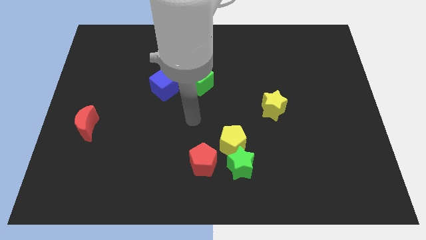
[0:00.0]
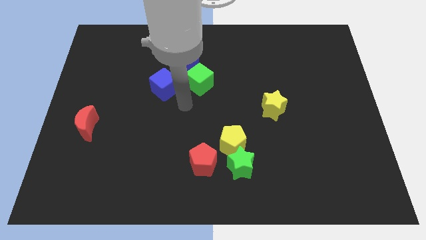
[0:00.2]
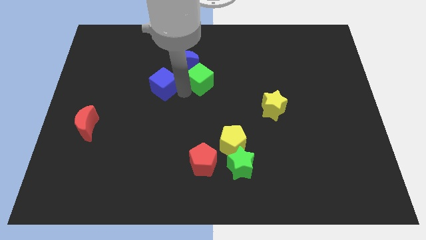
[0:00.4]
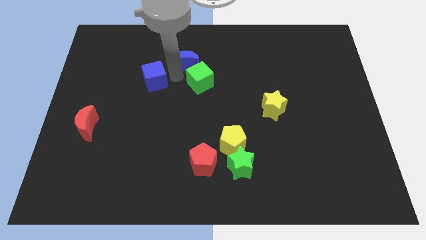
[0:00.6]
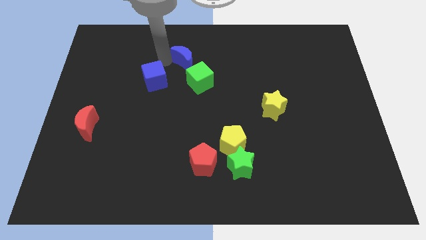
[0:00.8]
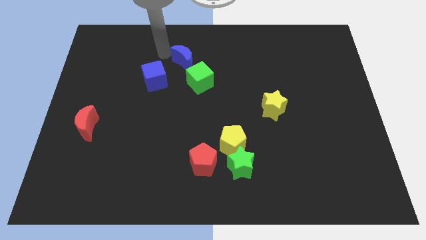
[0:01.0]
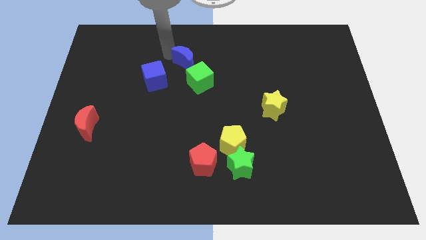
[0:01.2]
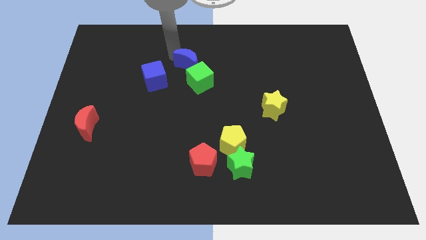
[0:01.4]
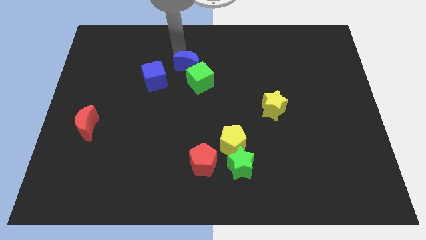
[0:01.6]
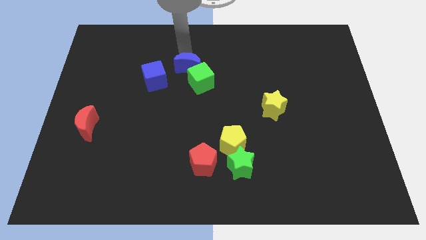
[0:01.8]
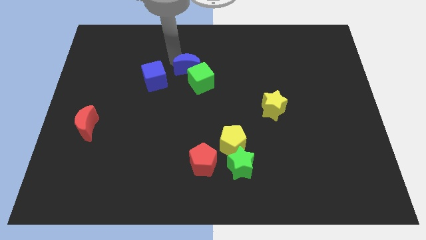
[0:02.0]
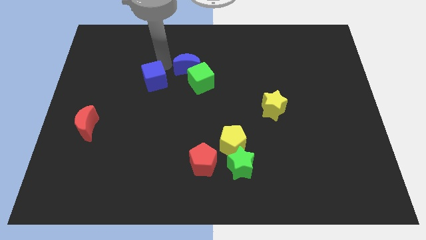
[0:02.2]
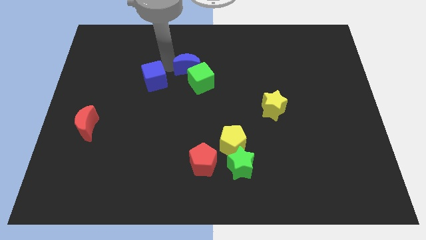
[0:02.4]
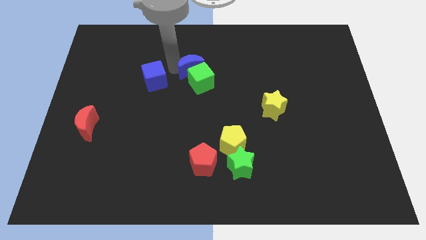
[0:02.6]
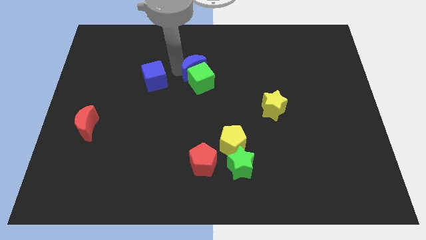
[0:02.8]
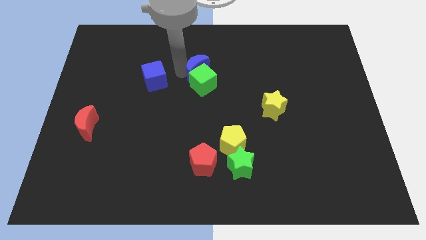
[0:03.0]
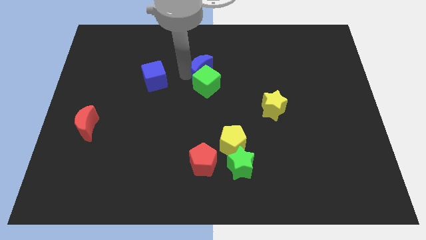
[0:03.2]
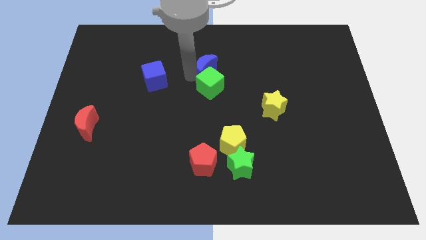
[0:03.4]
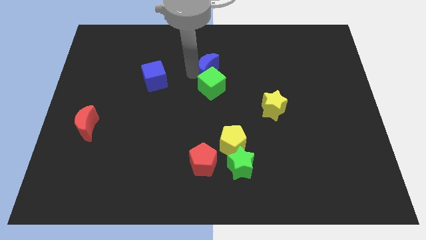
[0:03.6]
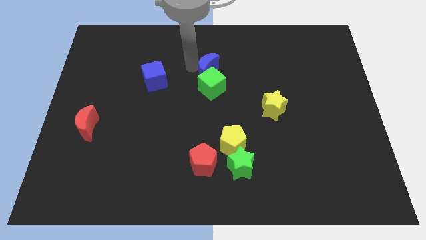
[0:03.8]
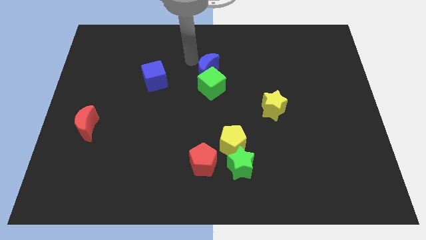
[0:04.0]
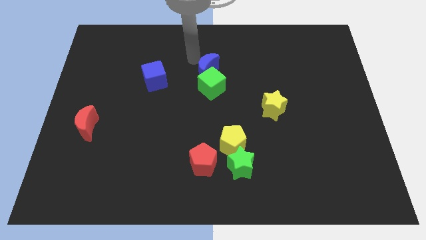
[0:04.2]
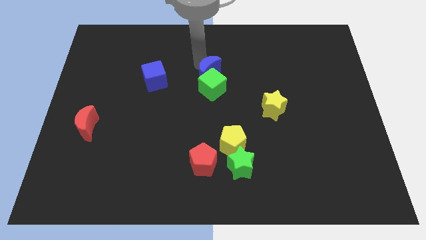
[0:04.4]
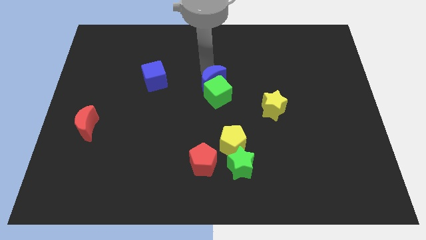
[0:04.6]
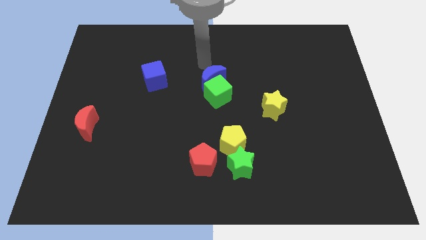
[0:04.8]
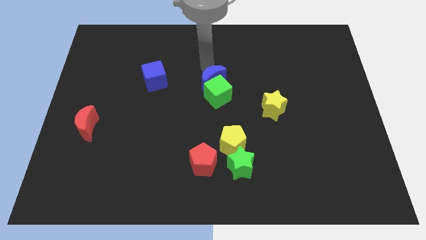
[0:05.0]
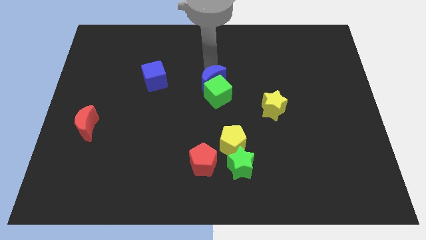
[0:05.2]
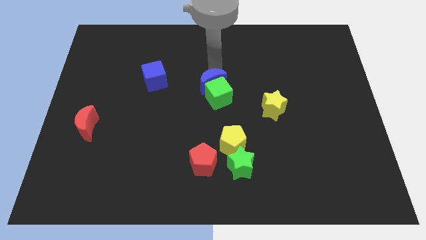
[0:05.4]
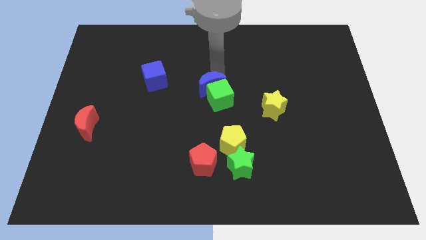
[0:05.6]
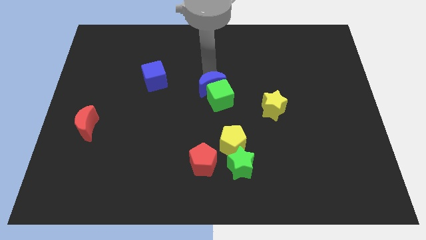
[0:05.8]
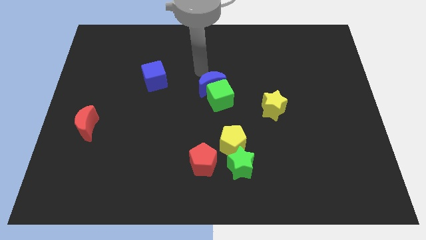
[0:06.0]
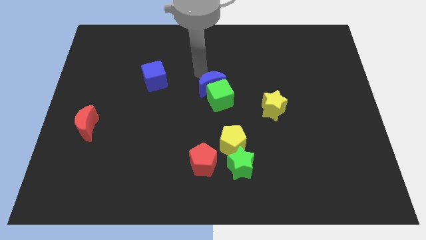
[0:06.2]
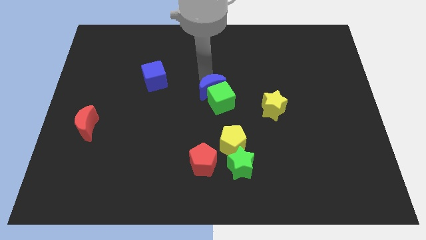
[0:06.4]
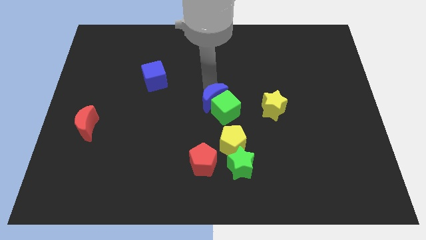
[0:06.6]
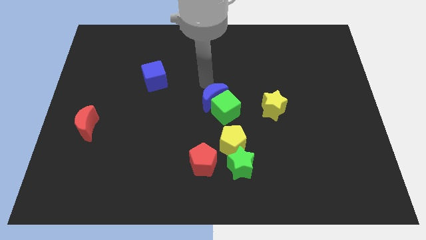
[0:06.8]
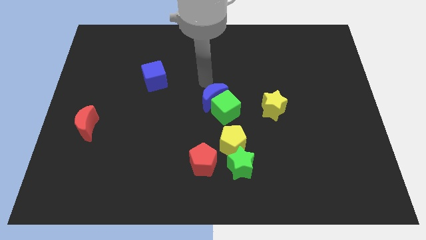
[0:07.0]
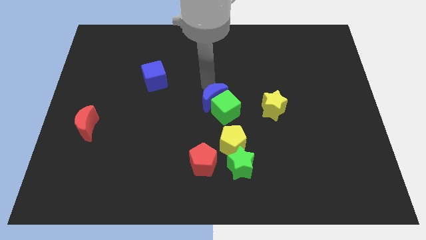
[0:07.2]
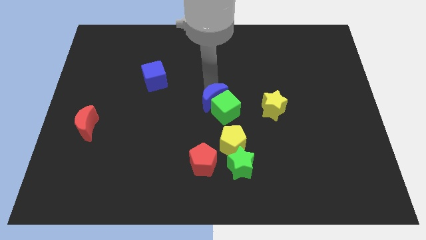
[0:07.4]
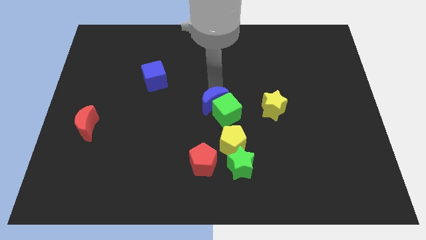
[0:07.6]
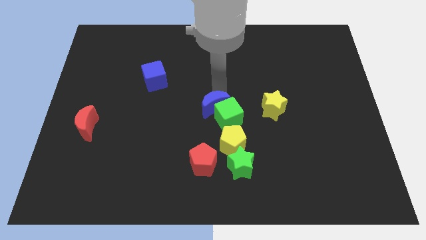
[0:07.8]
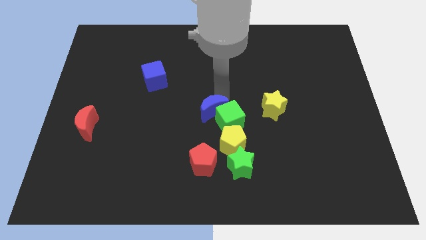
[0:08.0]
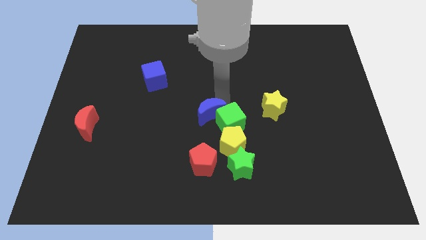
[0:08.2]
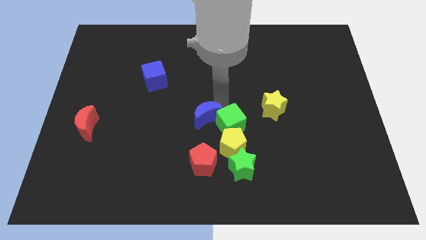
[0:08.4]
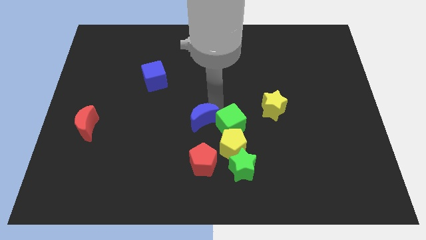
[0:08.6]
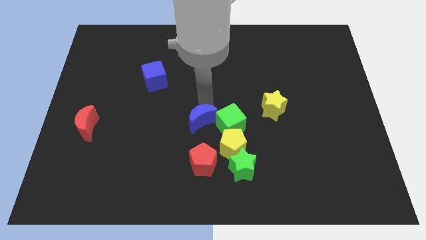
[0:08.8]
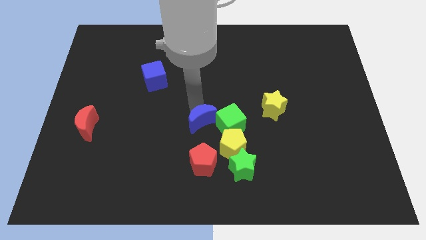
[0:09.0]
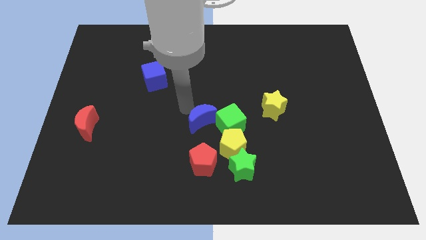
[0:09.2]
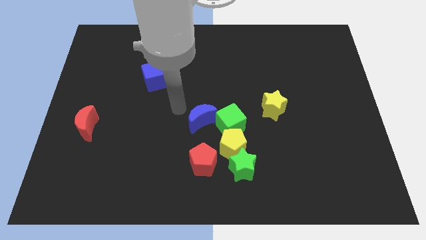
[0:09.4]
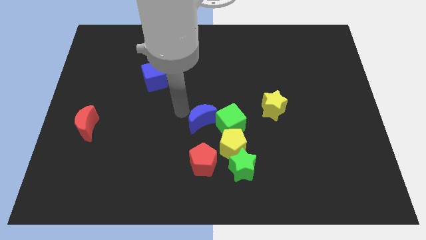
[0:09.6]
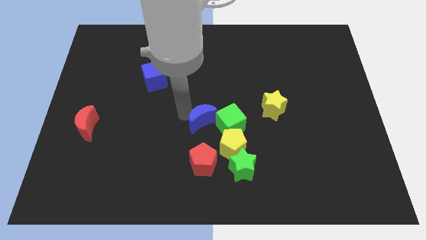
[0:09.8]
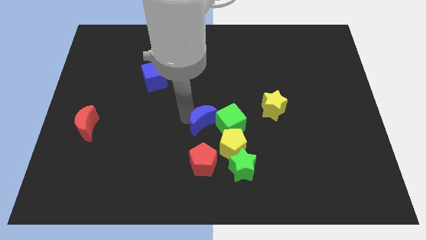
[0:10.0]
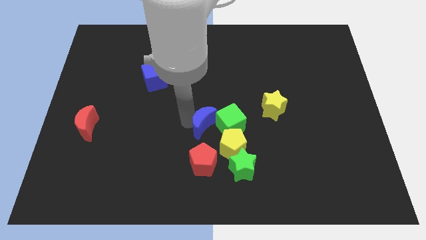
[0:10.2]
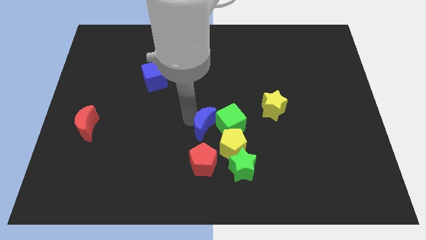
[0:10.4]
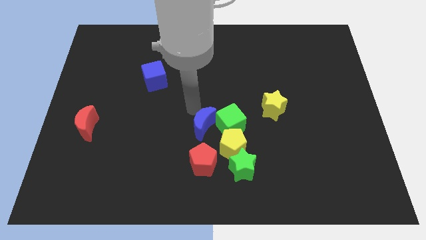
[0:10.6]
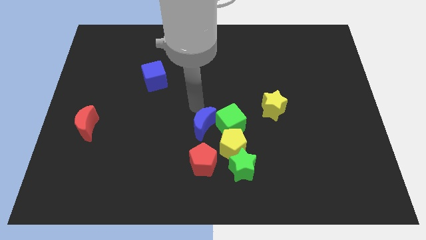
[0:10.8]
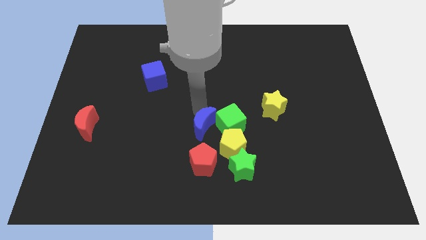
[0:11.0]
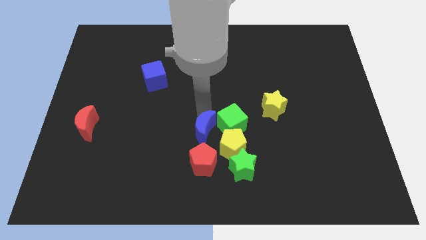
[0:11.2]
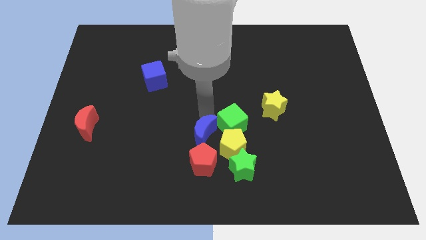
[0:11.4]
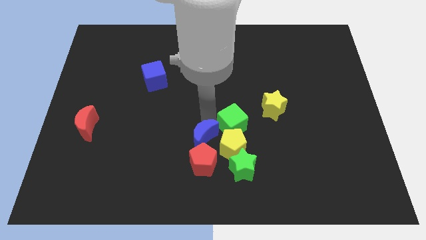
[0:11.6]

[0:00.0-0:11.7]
slide the blue moon close to the red pentagon

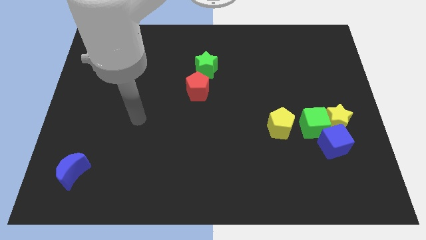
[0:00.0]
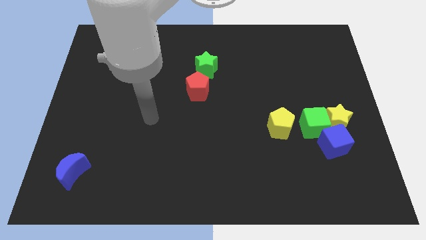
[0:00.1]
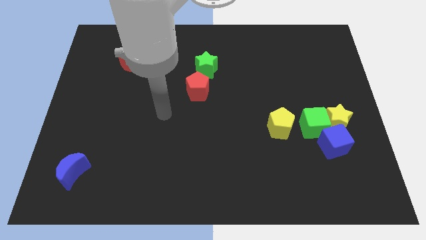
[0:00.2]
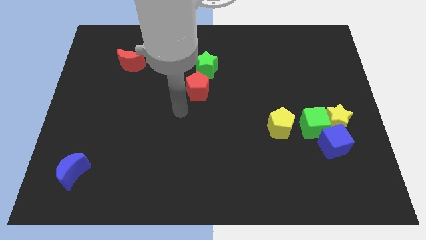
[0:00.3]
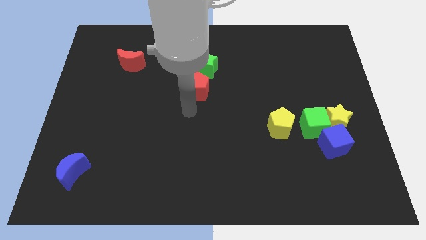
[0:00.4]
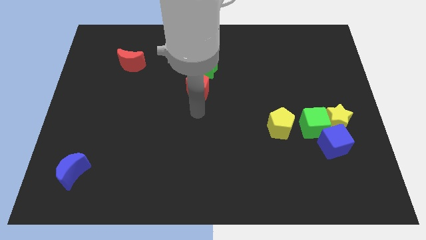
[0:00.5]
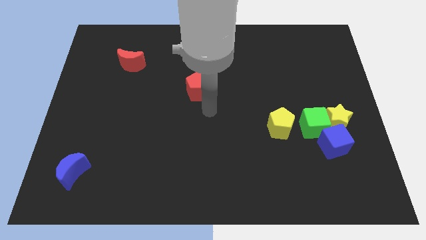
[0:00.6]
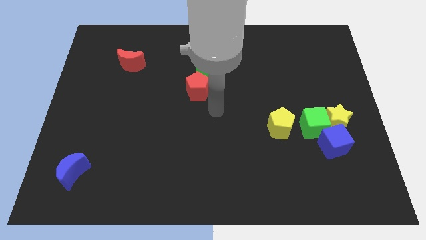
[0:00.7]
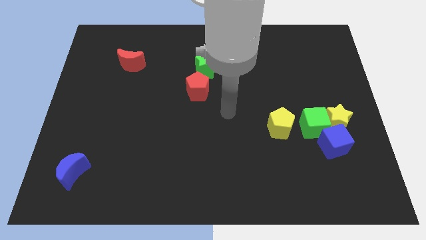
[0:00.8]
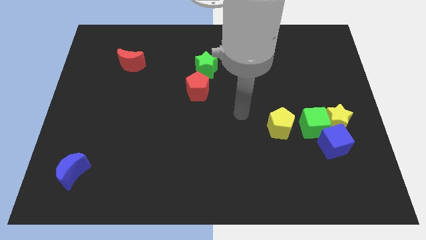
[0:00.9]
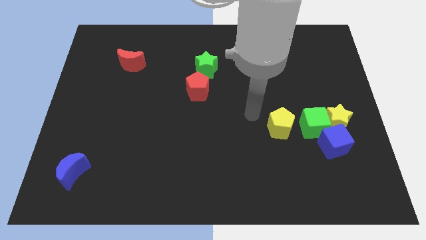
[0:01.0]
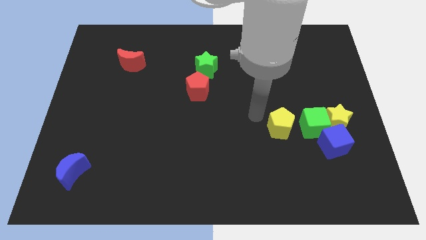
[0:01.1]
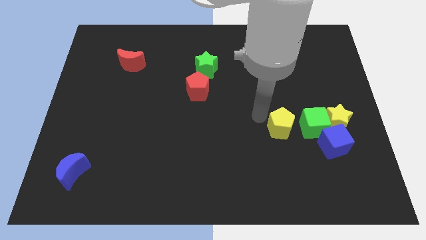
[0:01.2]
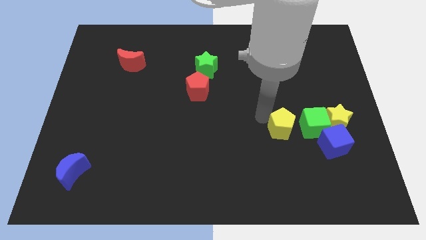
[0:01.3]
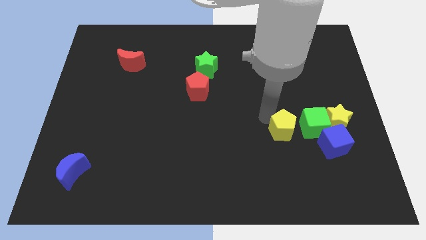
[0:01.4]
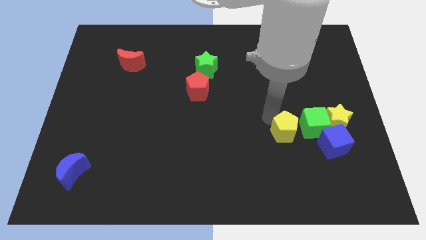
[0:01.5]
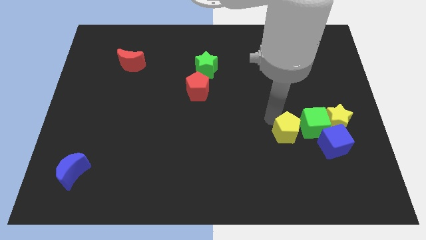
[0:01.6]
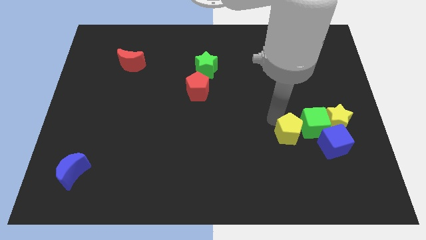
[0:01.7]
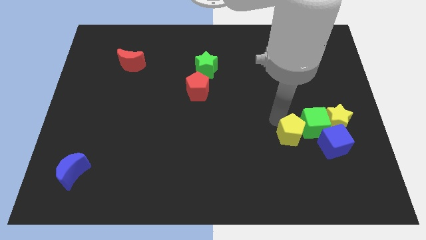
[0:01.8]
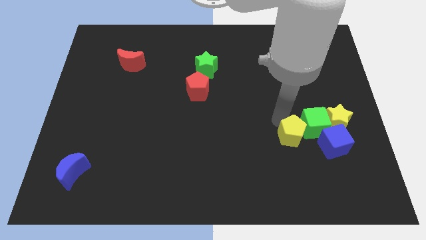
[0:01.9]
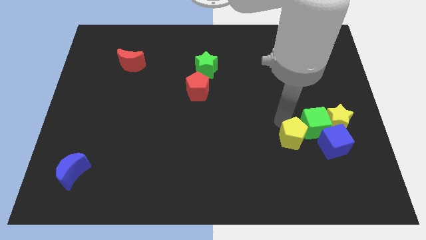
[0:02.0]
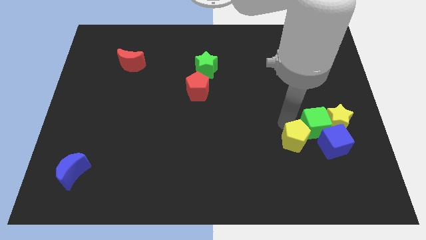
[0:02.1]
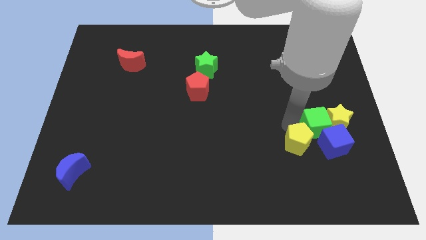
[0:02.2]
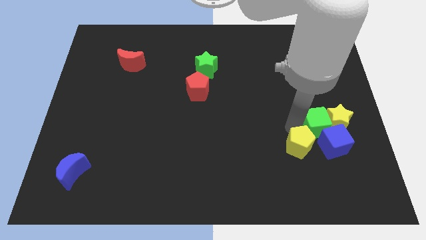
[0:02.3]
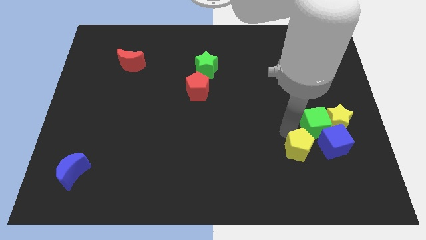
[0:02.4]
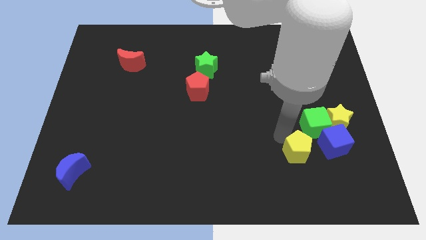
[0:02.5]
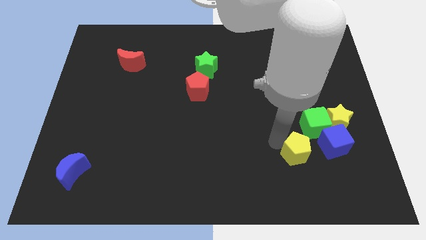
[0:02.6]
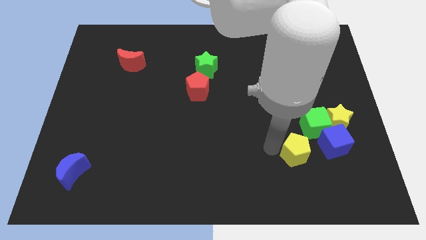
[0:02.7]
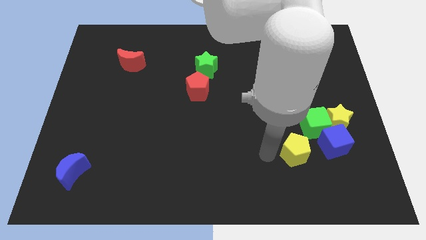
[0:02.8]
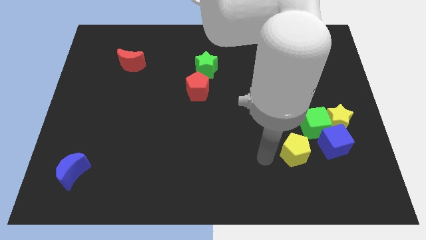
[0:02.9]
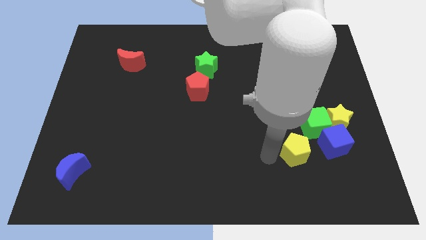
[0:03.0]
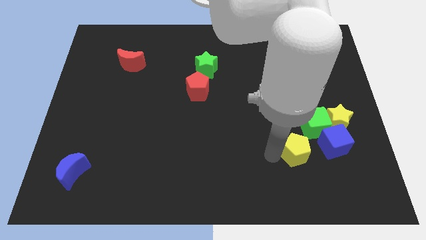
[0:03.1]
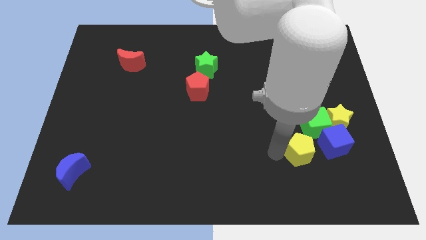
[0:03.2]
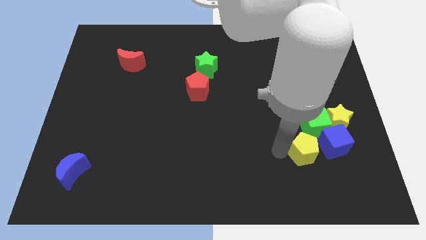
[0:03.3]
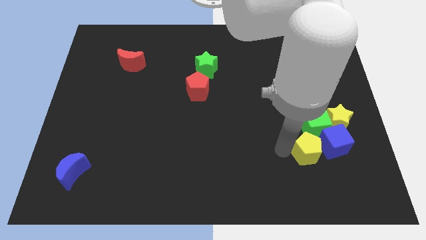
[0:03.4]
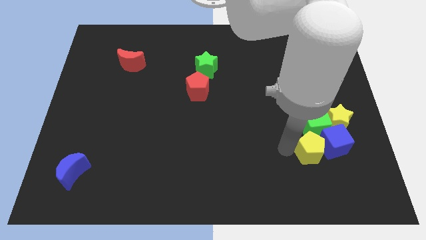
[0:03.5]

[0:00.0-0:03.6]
put the yellow pentagon to the blue cube
